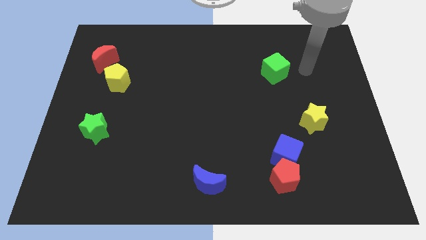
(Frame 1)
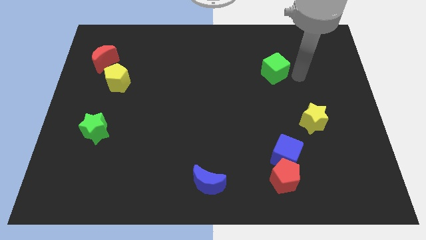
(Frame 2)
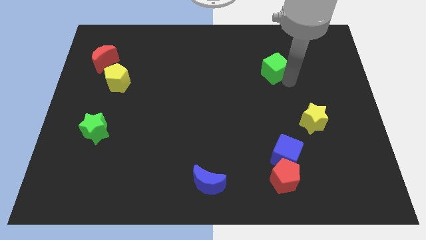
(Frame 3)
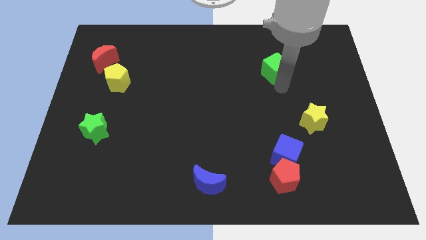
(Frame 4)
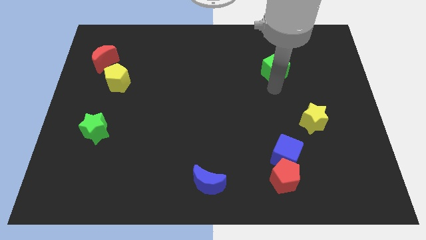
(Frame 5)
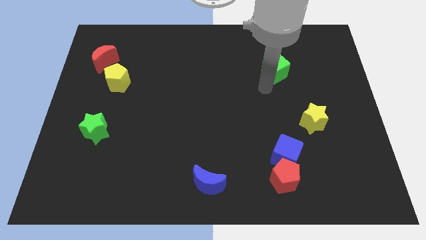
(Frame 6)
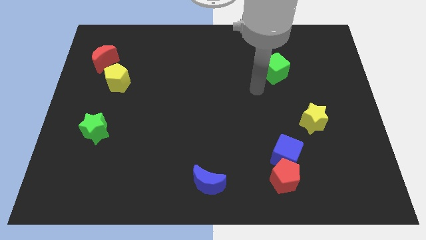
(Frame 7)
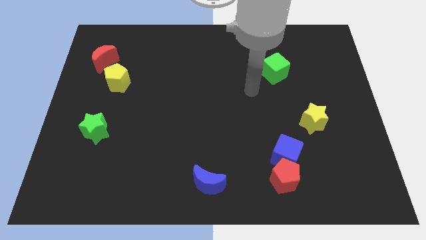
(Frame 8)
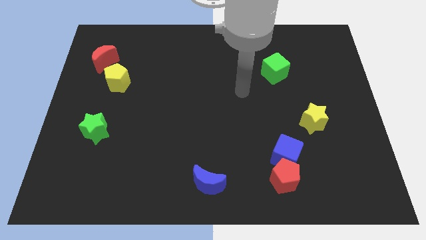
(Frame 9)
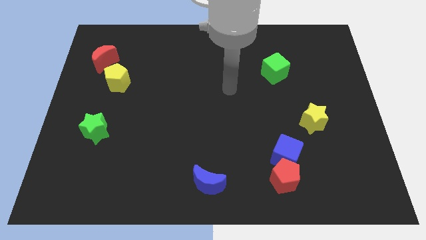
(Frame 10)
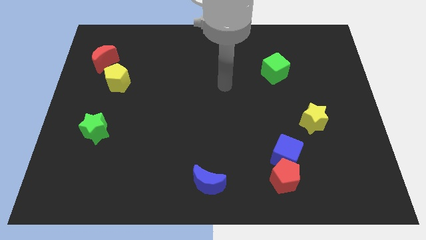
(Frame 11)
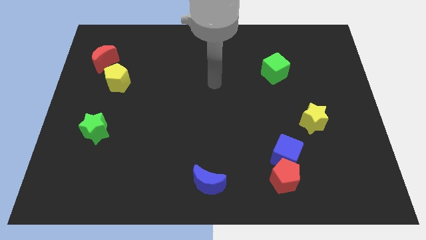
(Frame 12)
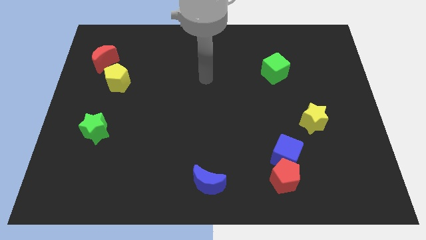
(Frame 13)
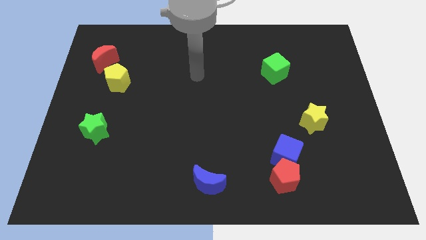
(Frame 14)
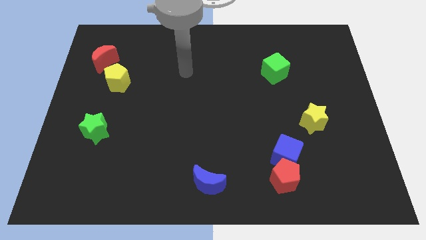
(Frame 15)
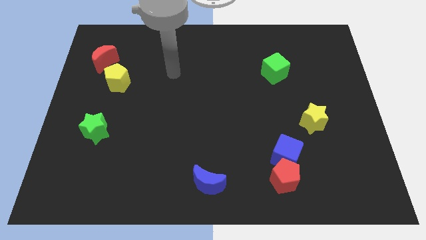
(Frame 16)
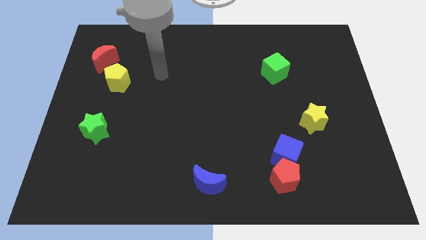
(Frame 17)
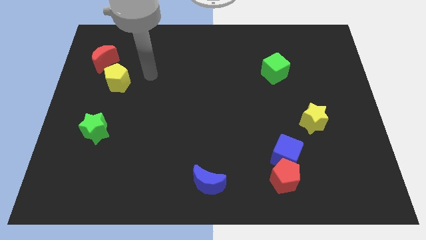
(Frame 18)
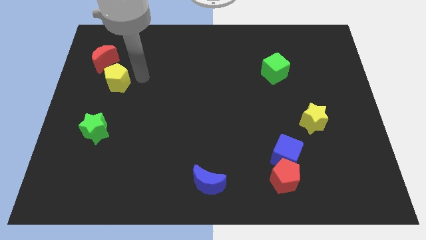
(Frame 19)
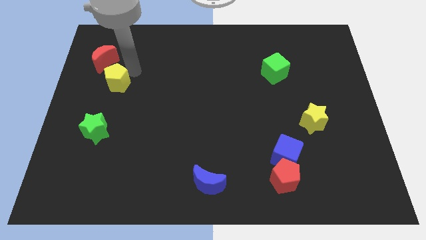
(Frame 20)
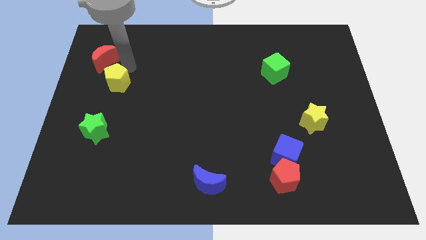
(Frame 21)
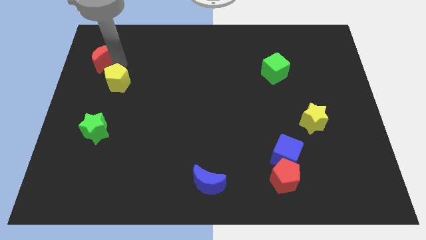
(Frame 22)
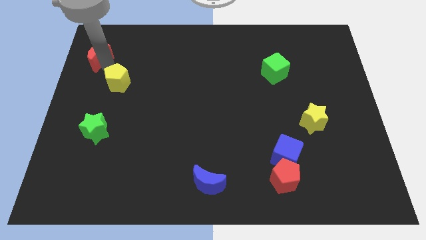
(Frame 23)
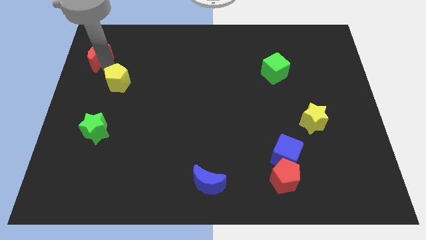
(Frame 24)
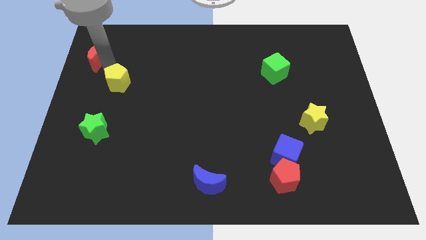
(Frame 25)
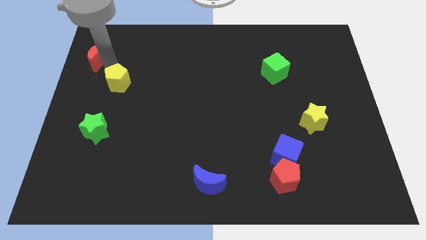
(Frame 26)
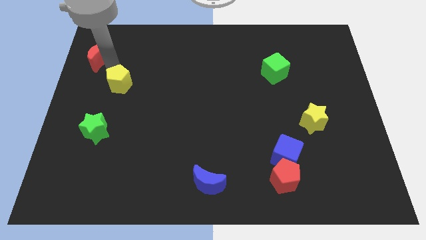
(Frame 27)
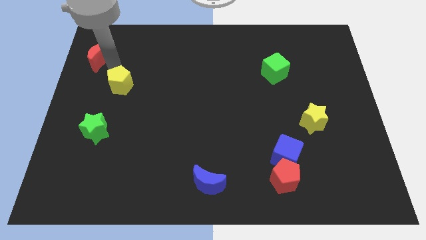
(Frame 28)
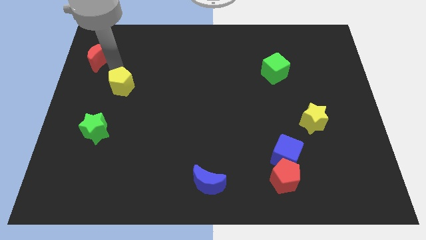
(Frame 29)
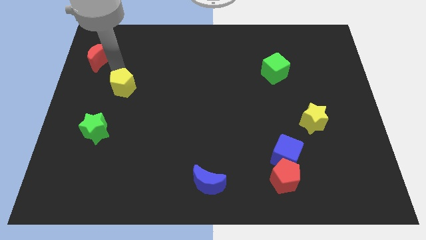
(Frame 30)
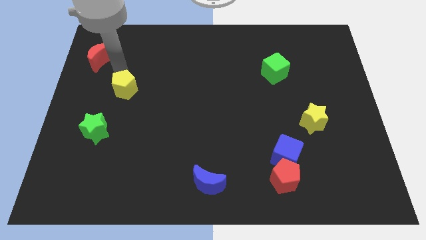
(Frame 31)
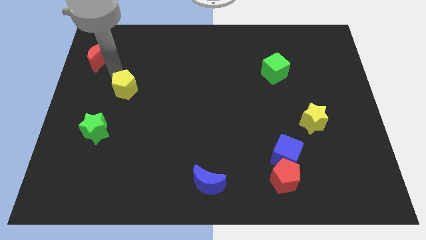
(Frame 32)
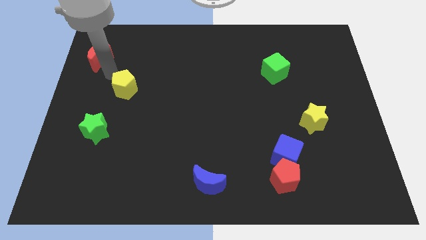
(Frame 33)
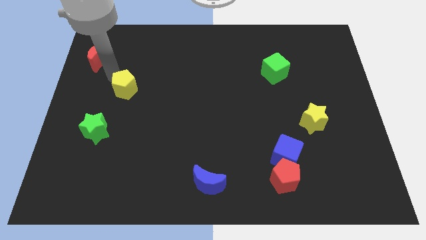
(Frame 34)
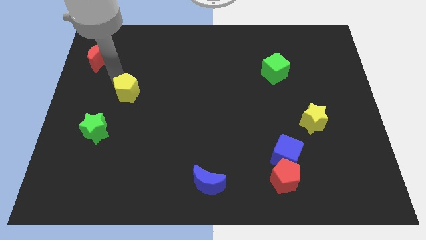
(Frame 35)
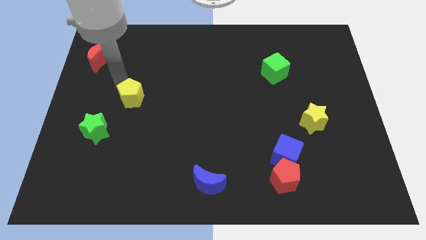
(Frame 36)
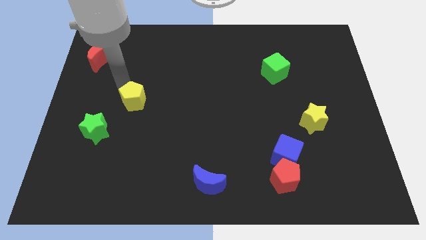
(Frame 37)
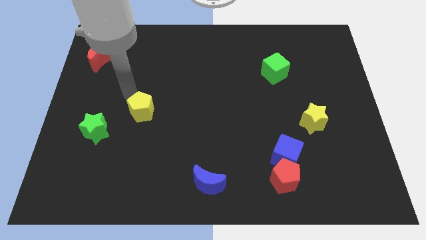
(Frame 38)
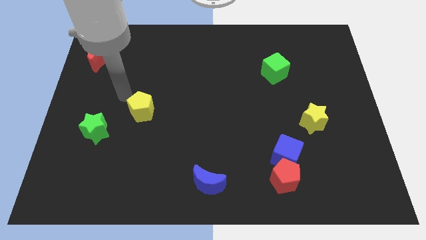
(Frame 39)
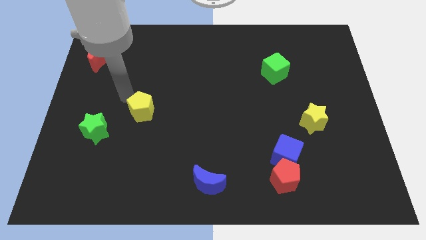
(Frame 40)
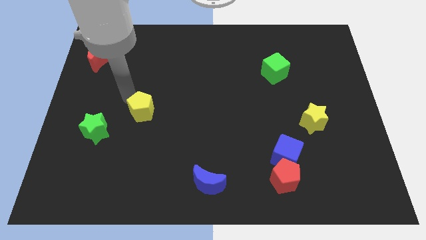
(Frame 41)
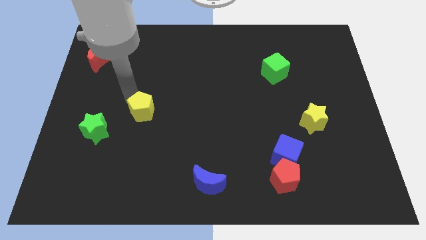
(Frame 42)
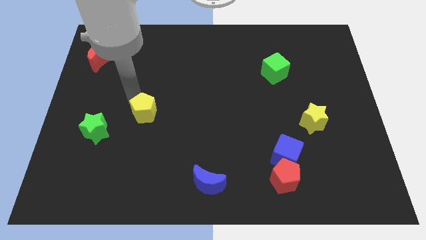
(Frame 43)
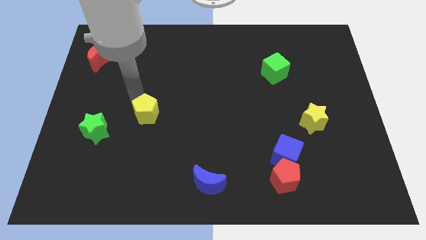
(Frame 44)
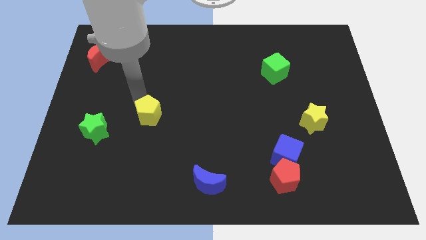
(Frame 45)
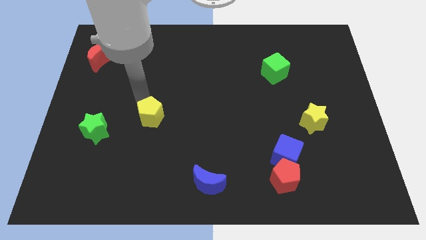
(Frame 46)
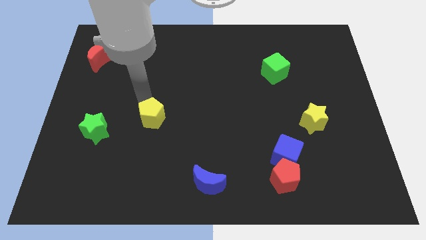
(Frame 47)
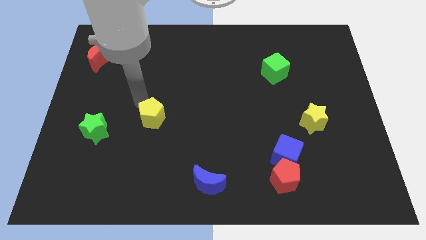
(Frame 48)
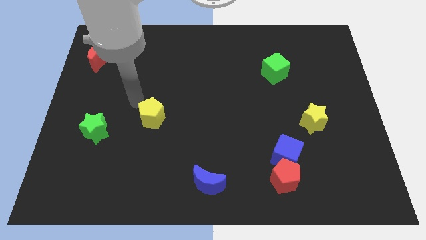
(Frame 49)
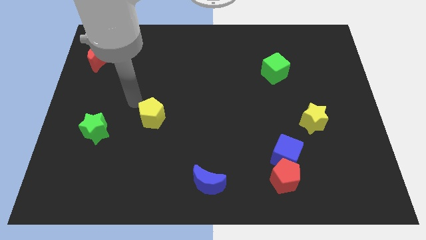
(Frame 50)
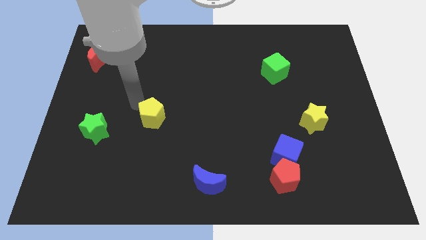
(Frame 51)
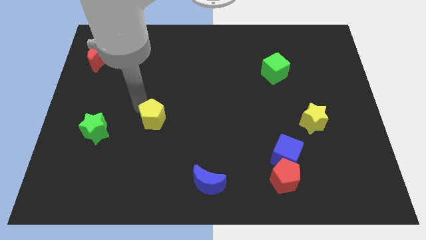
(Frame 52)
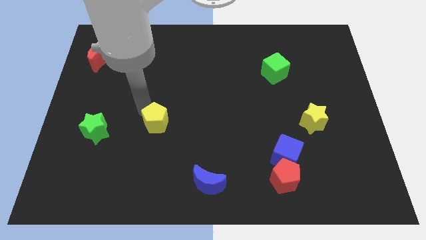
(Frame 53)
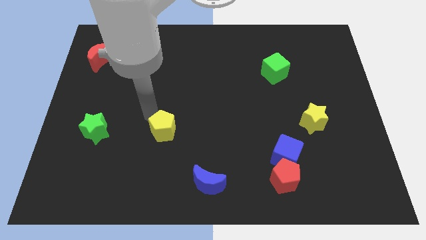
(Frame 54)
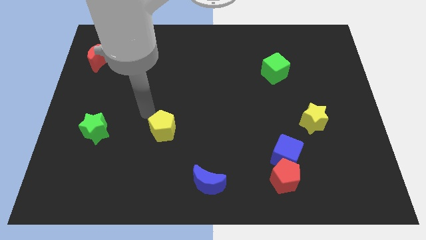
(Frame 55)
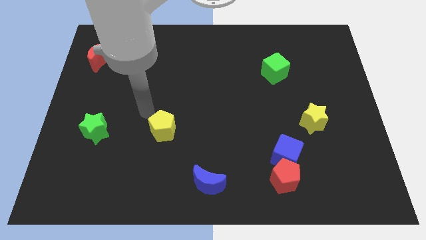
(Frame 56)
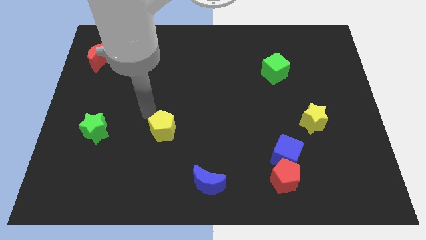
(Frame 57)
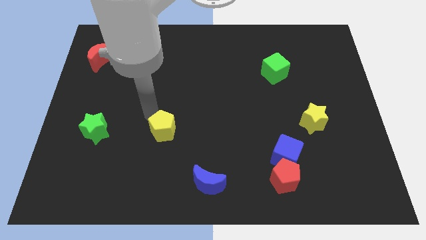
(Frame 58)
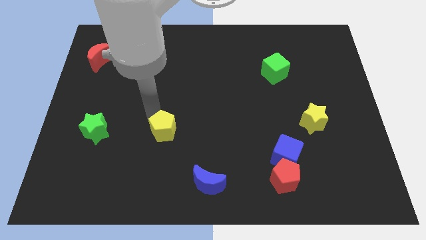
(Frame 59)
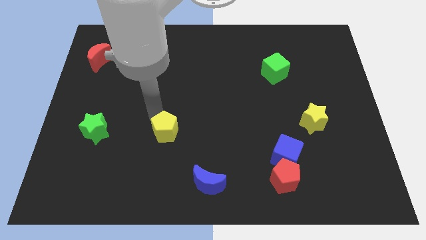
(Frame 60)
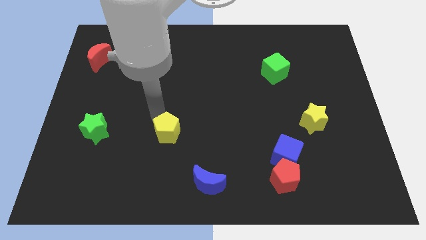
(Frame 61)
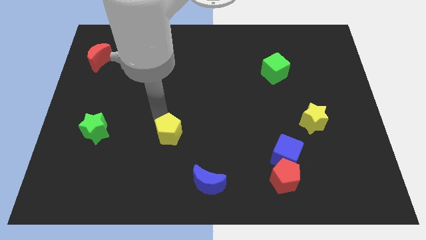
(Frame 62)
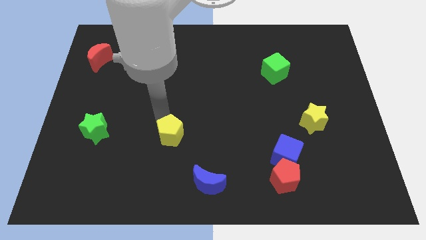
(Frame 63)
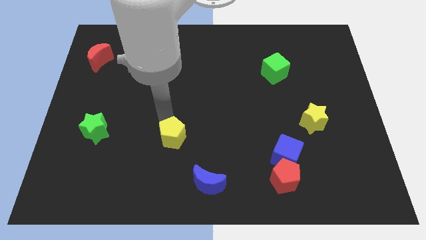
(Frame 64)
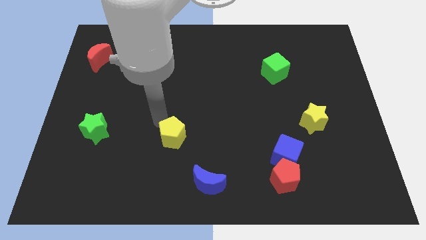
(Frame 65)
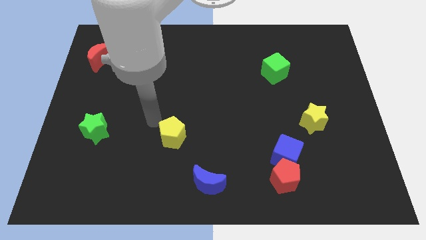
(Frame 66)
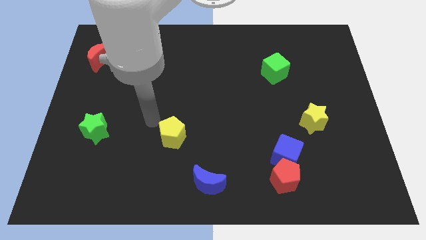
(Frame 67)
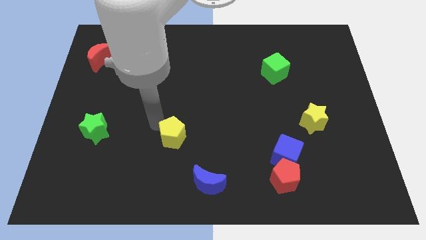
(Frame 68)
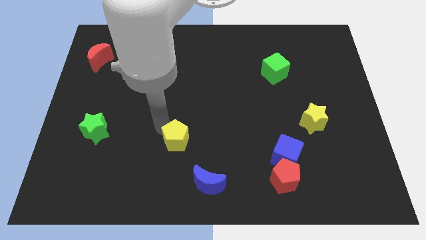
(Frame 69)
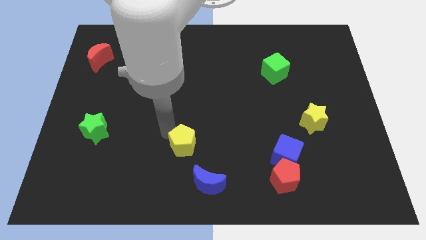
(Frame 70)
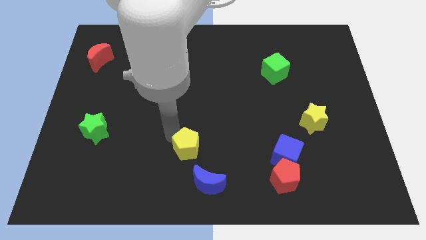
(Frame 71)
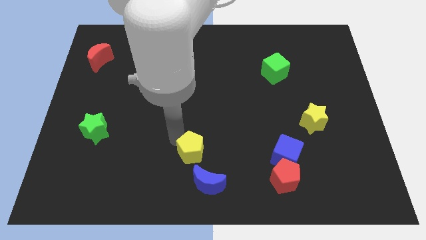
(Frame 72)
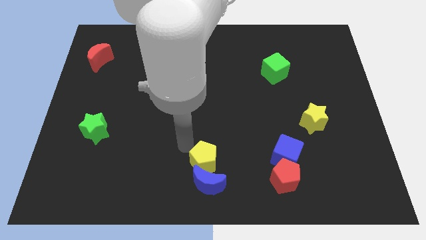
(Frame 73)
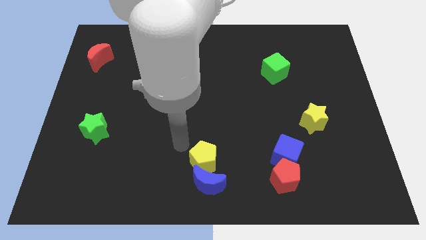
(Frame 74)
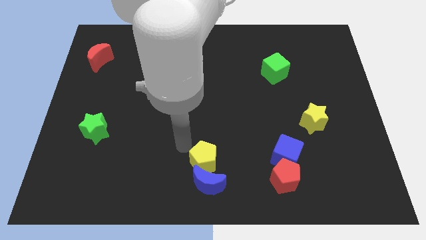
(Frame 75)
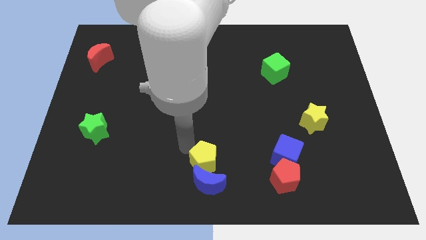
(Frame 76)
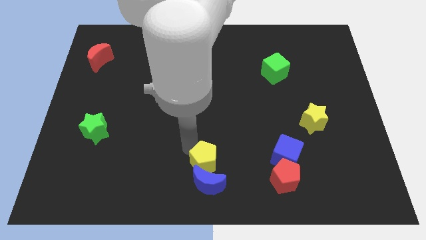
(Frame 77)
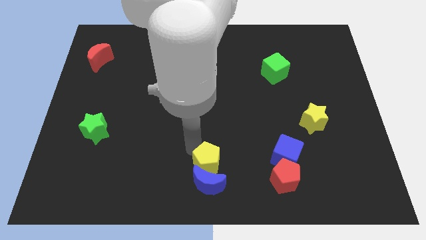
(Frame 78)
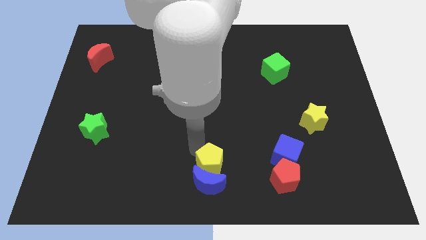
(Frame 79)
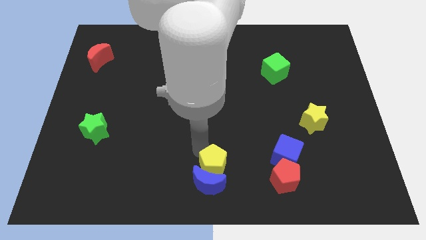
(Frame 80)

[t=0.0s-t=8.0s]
put the yellow pentagon to the left side of the red pentagon
